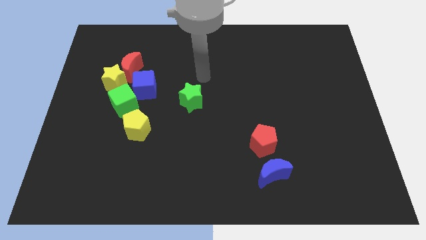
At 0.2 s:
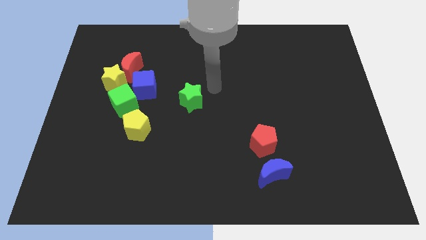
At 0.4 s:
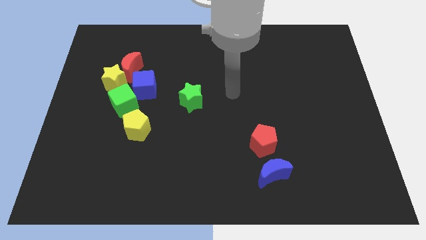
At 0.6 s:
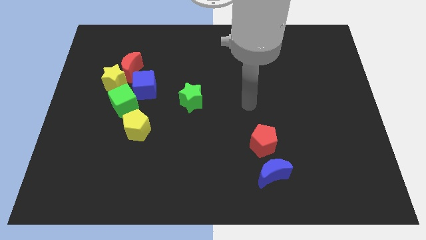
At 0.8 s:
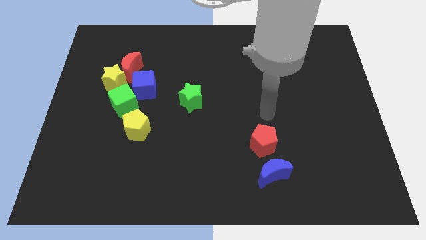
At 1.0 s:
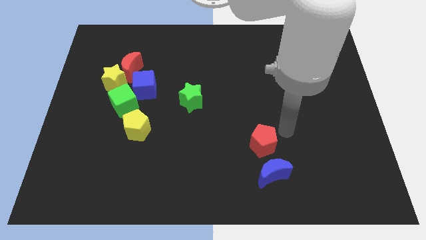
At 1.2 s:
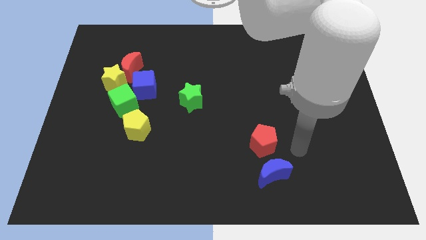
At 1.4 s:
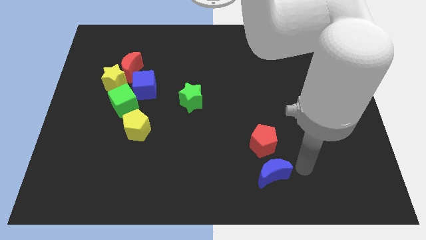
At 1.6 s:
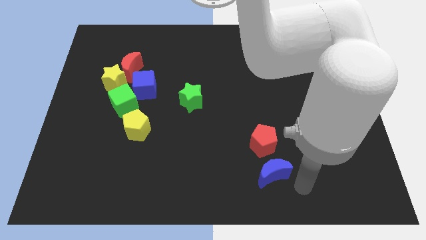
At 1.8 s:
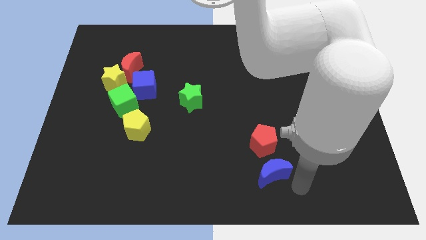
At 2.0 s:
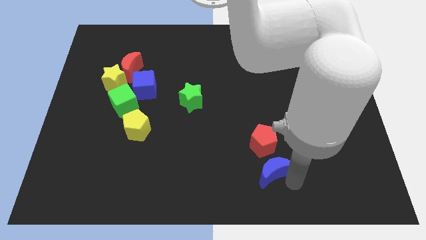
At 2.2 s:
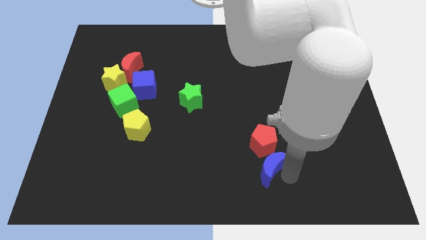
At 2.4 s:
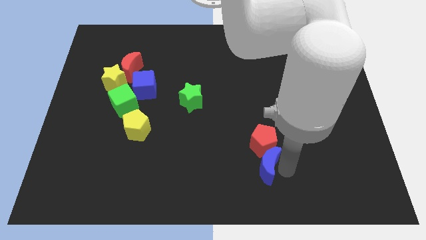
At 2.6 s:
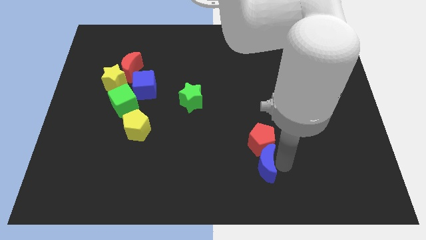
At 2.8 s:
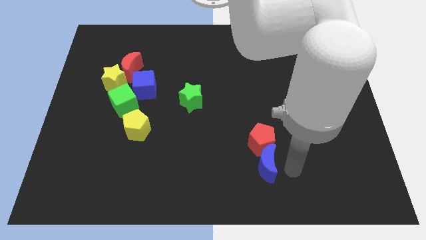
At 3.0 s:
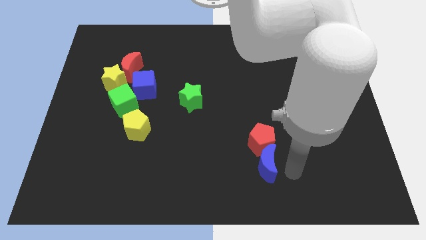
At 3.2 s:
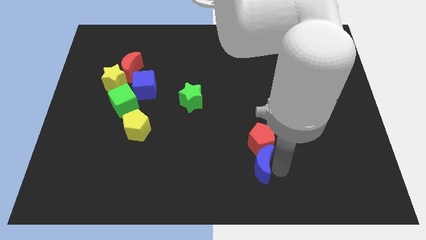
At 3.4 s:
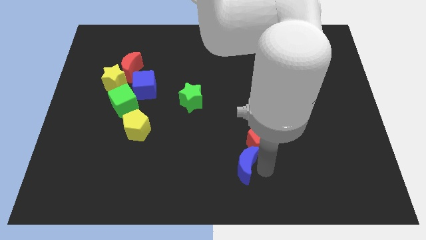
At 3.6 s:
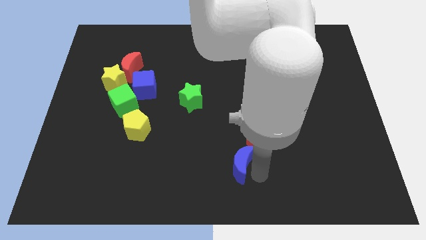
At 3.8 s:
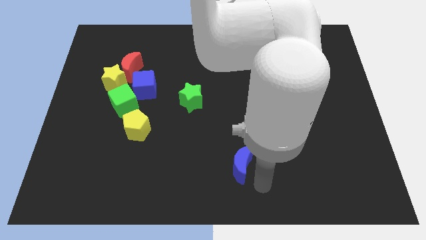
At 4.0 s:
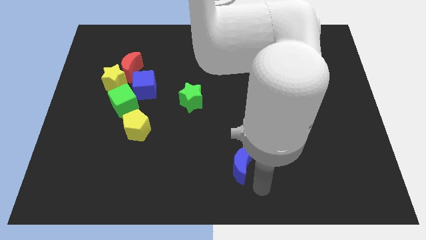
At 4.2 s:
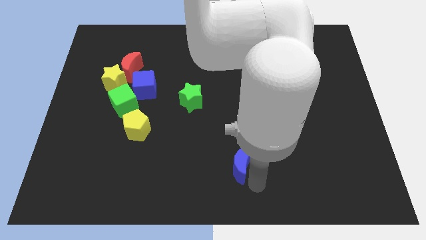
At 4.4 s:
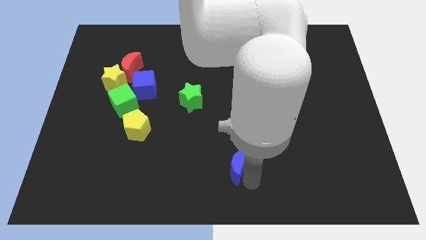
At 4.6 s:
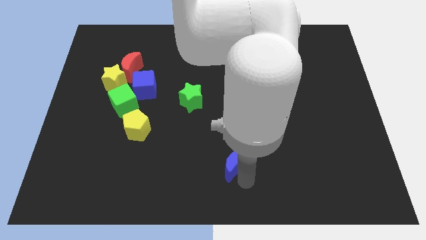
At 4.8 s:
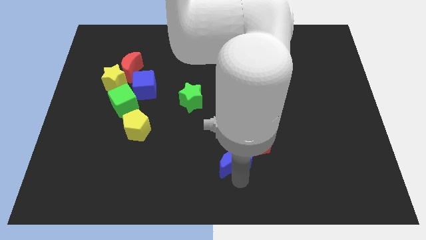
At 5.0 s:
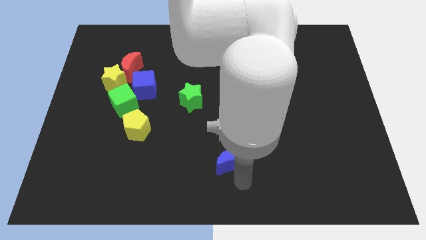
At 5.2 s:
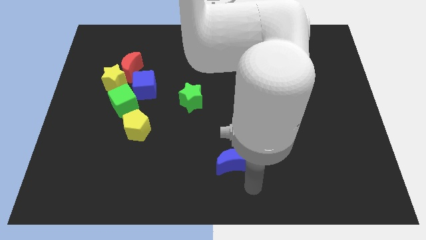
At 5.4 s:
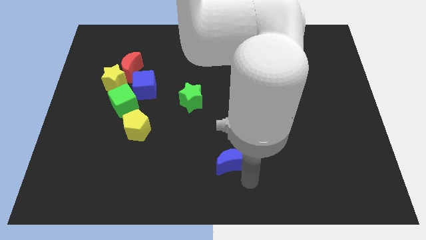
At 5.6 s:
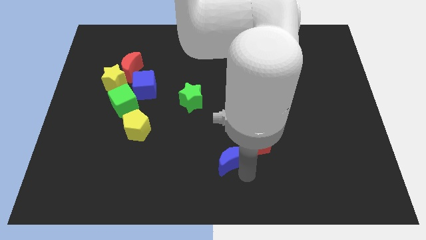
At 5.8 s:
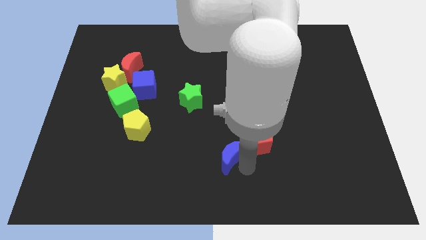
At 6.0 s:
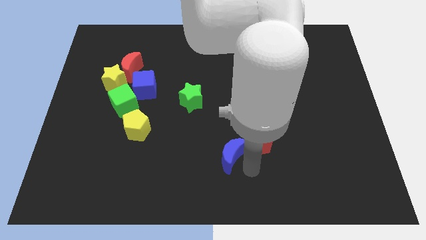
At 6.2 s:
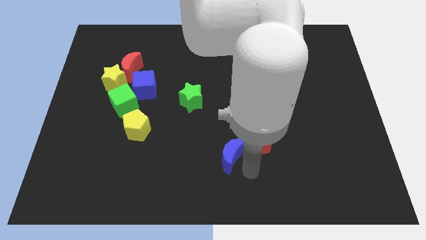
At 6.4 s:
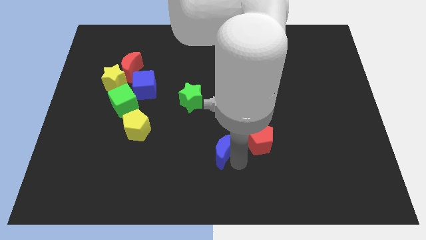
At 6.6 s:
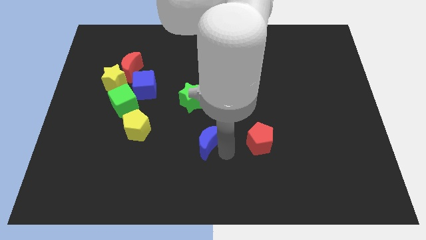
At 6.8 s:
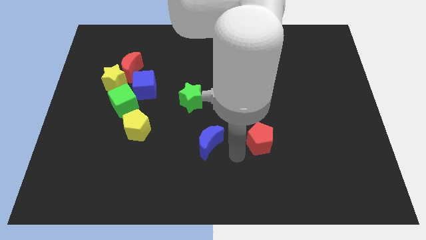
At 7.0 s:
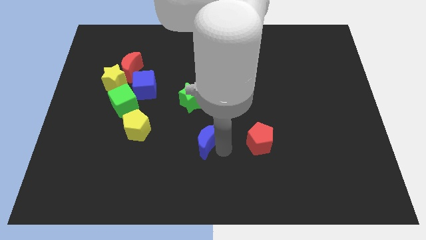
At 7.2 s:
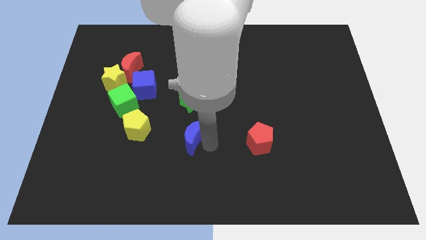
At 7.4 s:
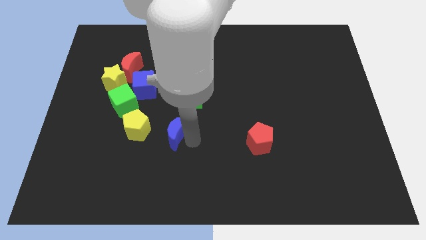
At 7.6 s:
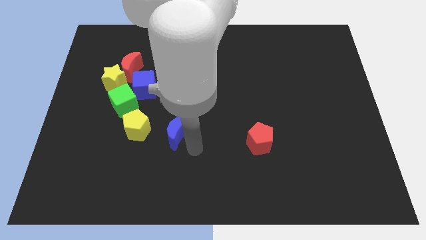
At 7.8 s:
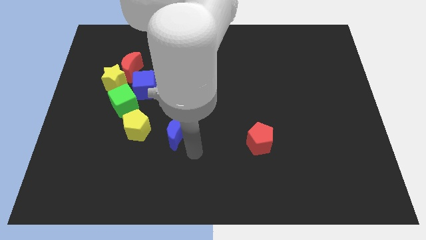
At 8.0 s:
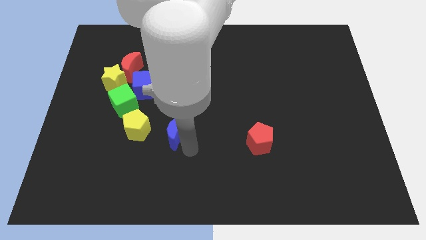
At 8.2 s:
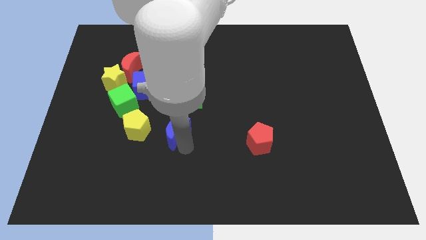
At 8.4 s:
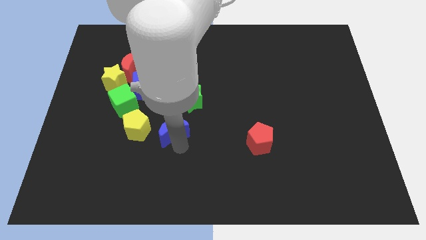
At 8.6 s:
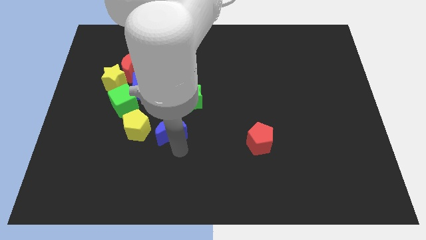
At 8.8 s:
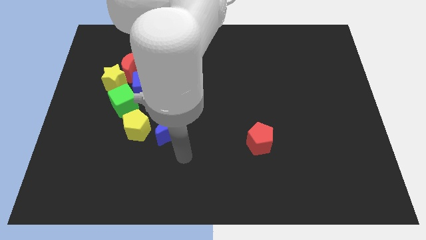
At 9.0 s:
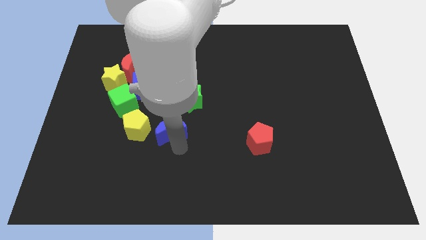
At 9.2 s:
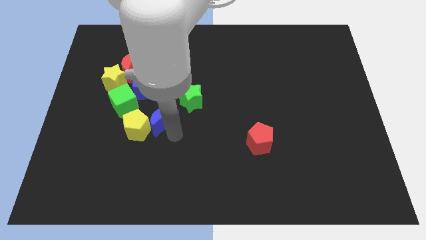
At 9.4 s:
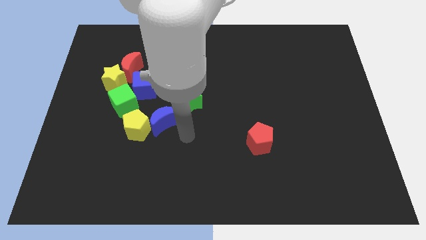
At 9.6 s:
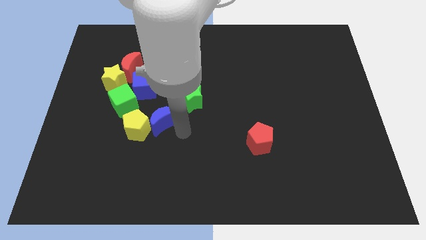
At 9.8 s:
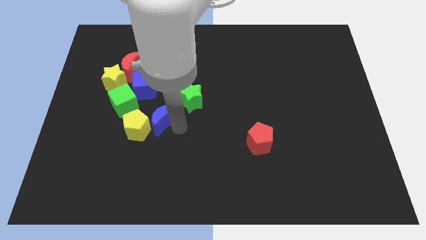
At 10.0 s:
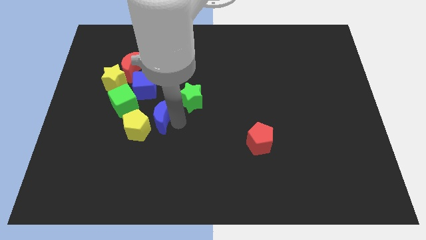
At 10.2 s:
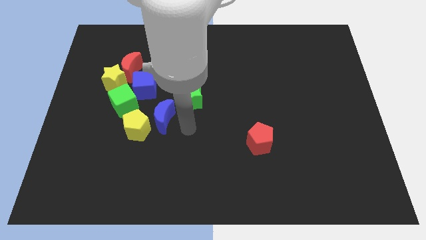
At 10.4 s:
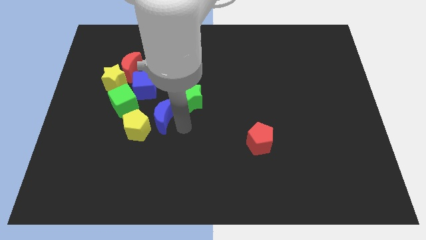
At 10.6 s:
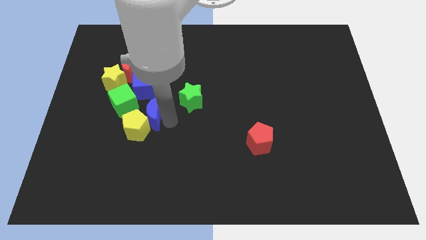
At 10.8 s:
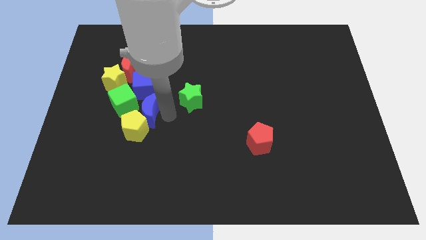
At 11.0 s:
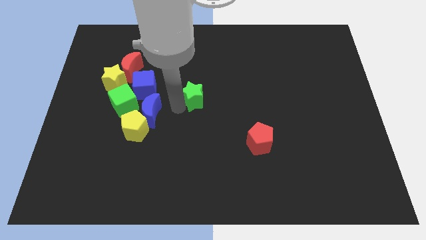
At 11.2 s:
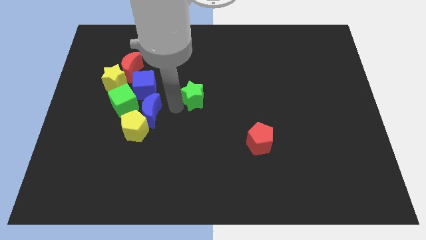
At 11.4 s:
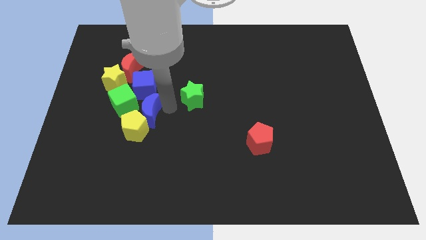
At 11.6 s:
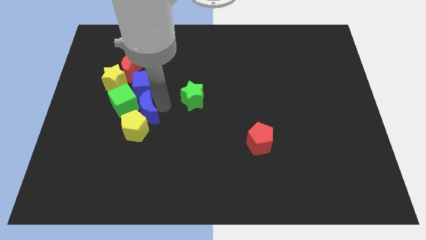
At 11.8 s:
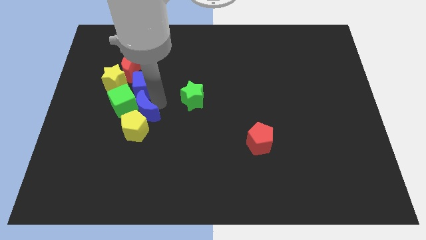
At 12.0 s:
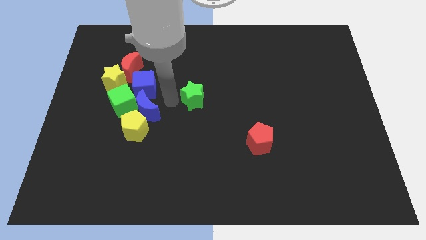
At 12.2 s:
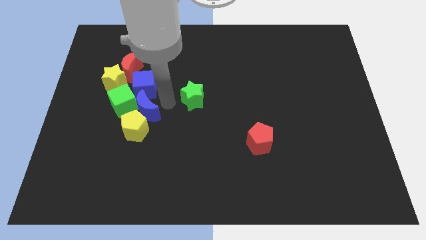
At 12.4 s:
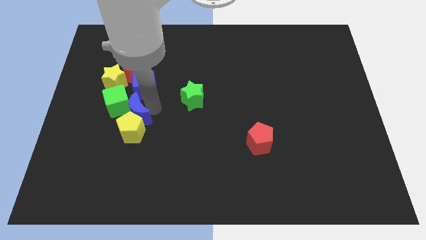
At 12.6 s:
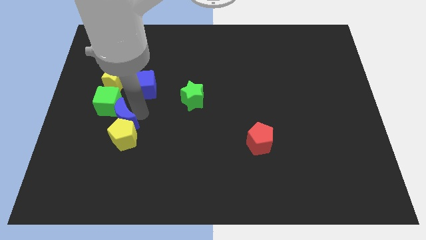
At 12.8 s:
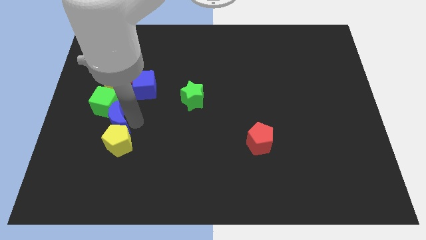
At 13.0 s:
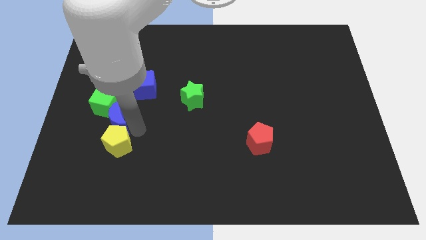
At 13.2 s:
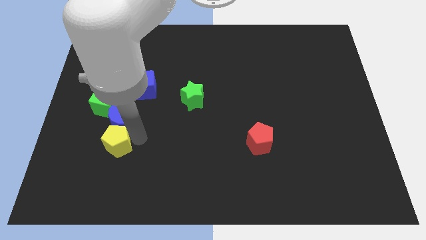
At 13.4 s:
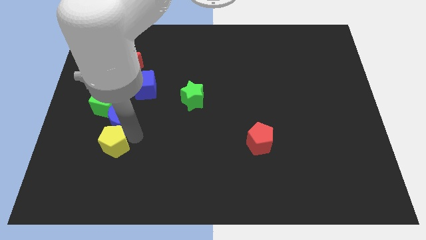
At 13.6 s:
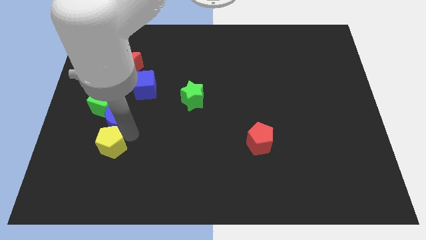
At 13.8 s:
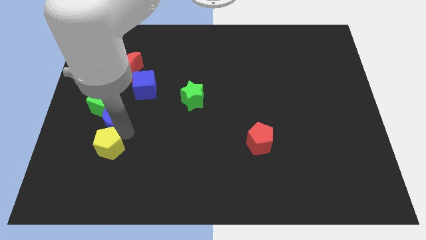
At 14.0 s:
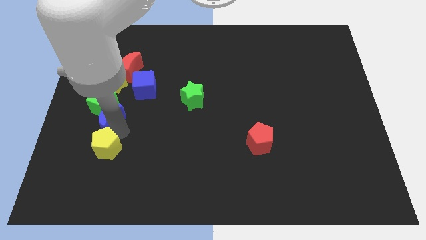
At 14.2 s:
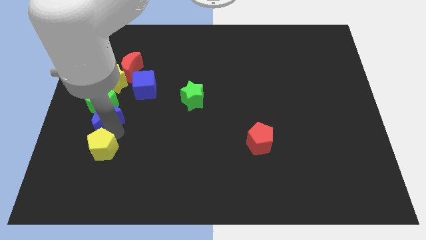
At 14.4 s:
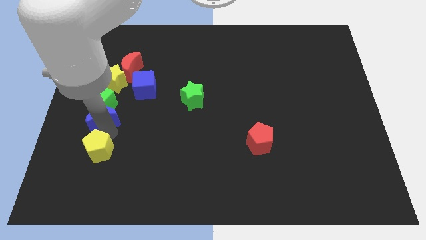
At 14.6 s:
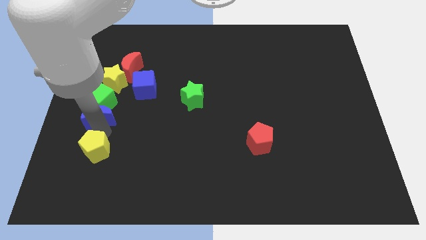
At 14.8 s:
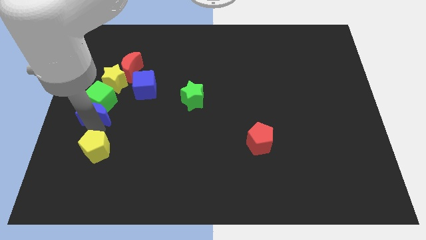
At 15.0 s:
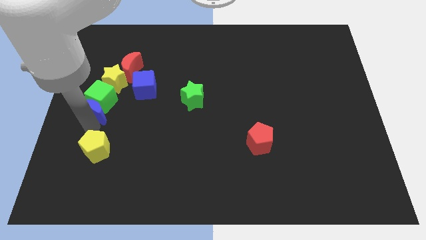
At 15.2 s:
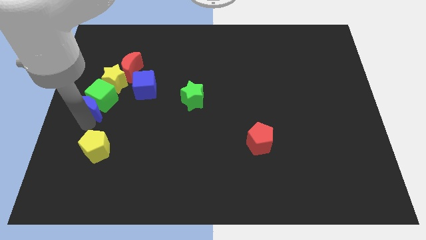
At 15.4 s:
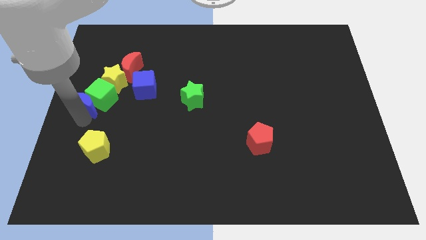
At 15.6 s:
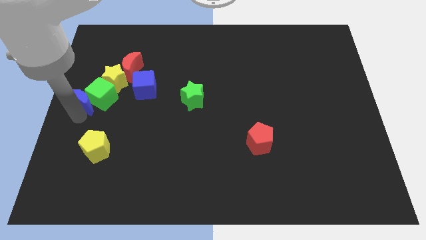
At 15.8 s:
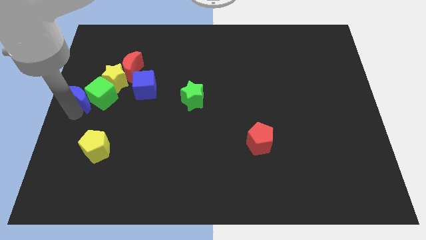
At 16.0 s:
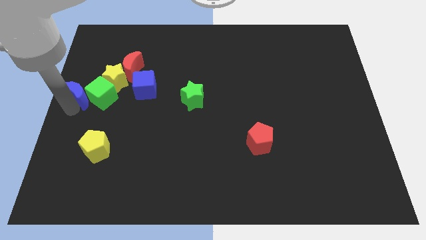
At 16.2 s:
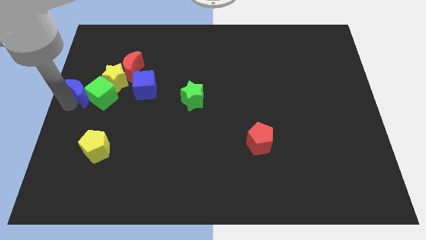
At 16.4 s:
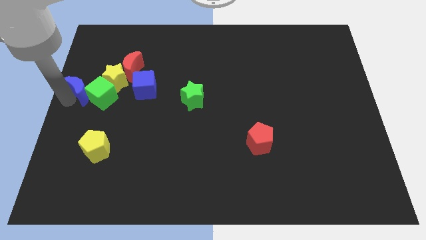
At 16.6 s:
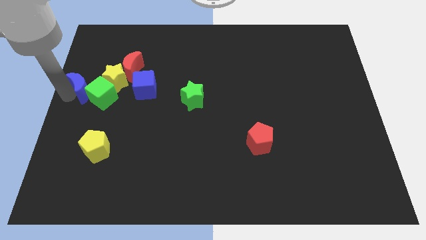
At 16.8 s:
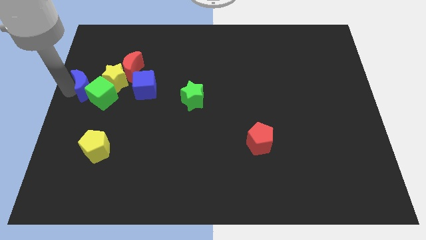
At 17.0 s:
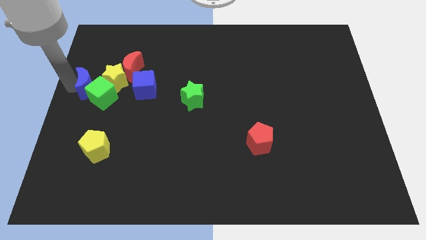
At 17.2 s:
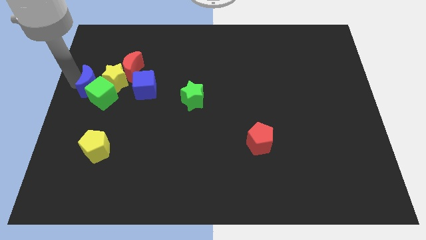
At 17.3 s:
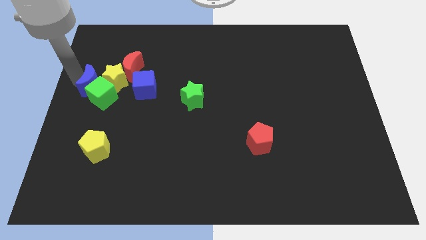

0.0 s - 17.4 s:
slide the blue moon next to the yellow star
